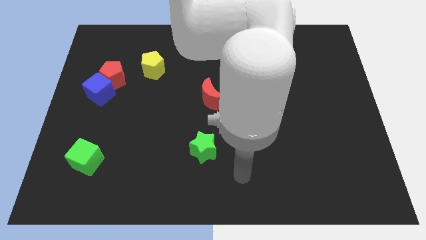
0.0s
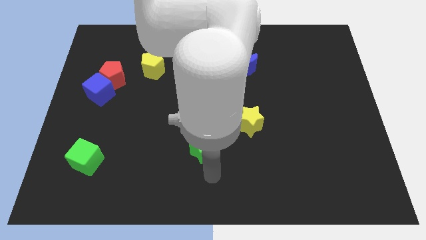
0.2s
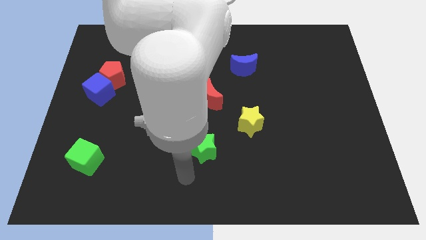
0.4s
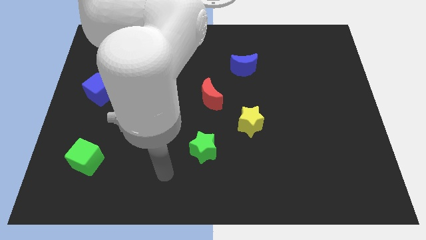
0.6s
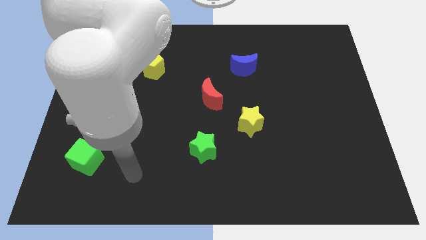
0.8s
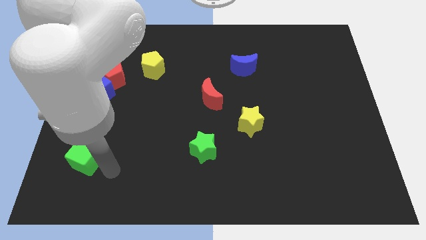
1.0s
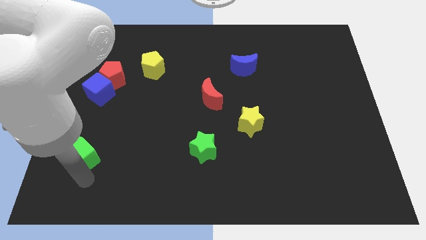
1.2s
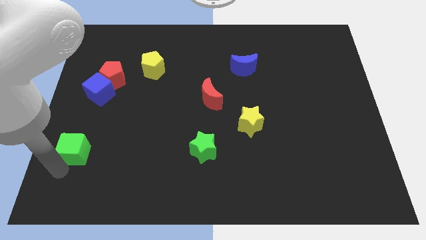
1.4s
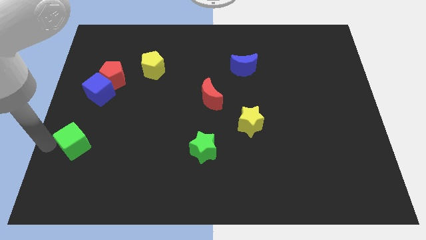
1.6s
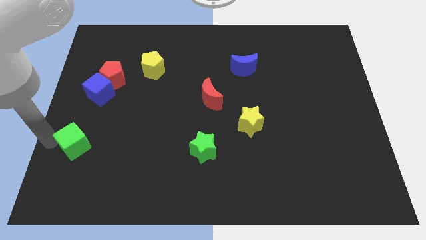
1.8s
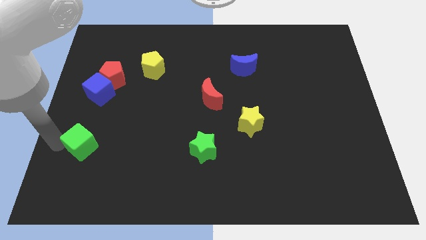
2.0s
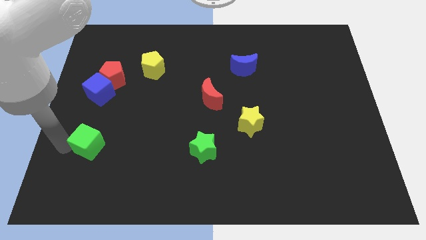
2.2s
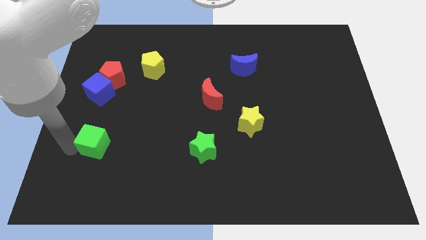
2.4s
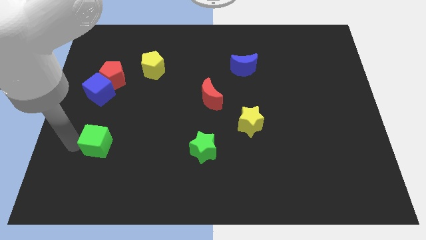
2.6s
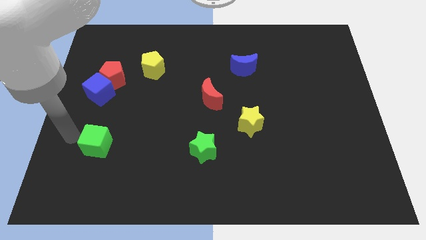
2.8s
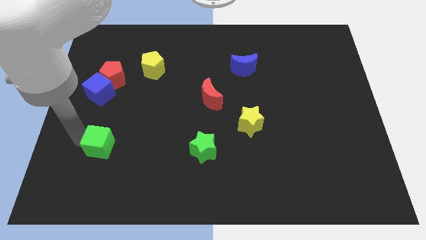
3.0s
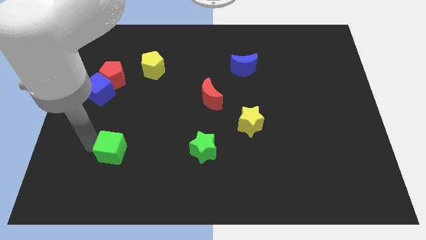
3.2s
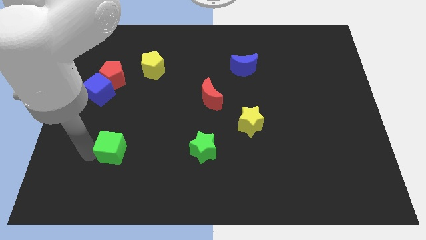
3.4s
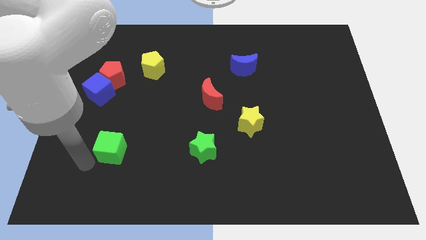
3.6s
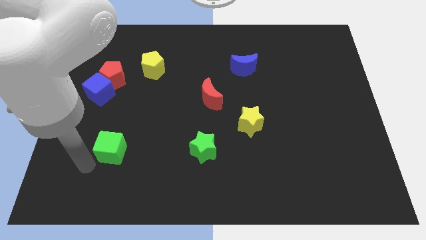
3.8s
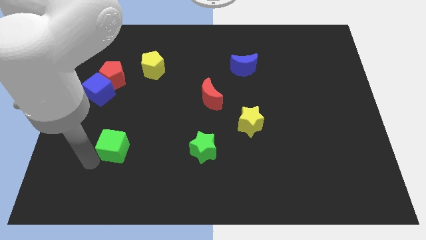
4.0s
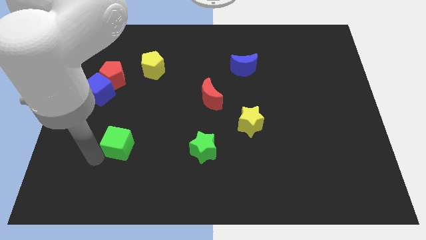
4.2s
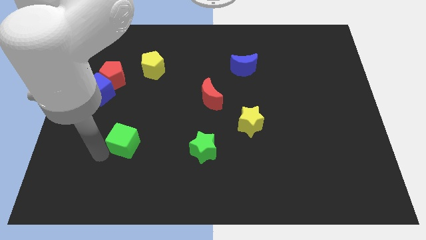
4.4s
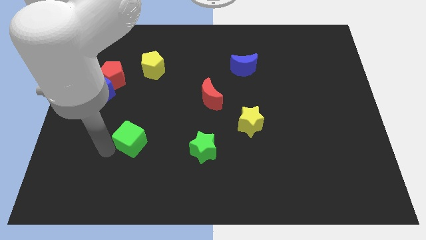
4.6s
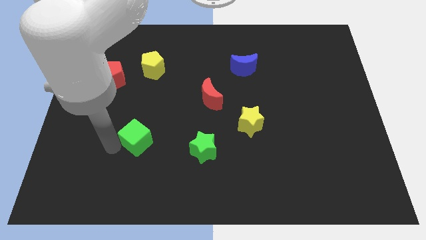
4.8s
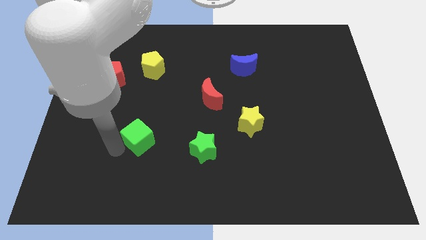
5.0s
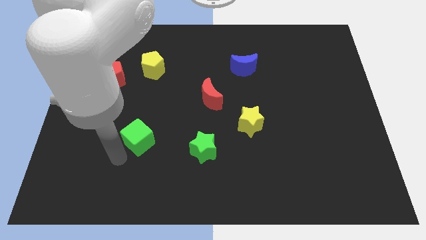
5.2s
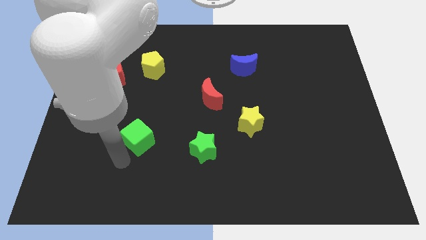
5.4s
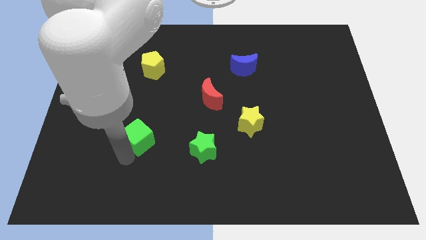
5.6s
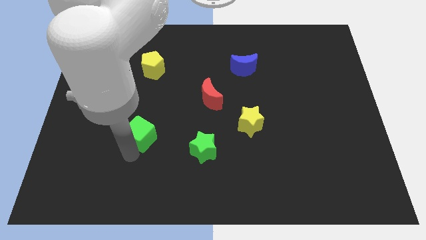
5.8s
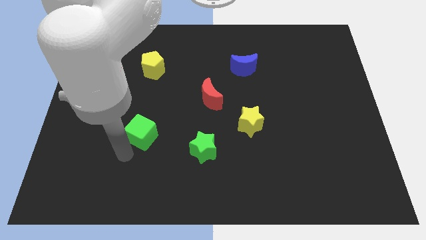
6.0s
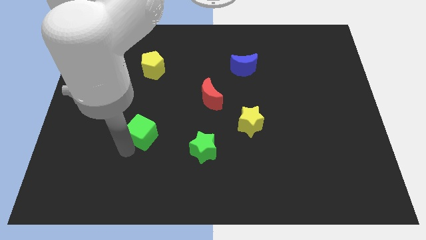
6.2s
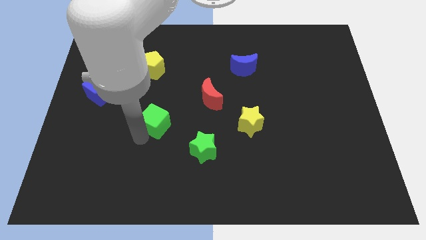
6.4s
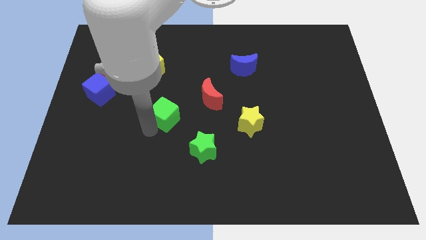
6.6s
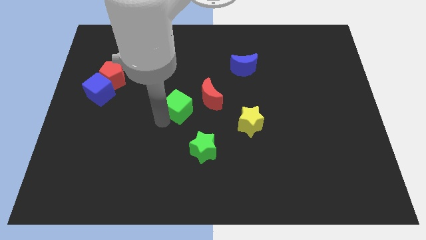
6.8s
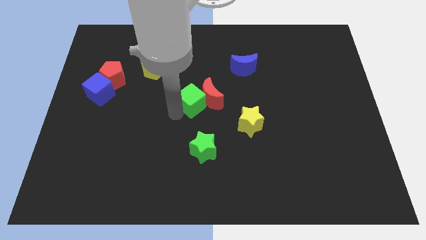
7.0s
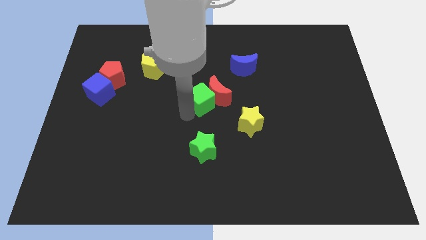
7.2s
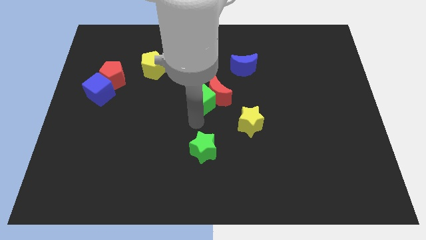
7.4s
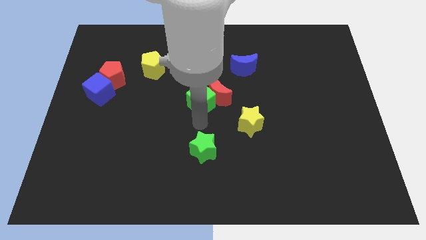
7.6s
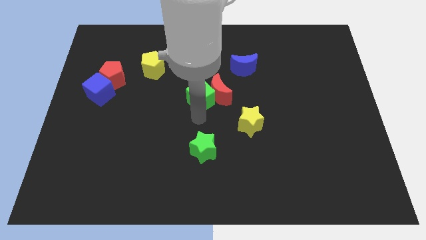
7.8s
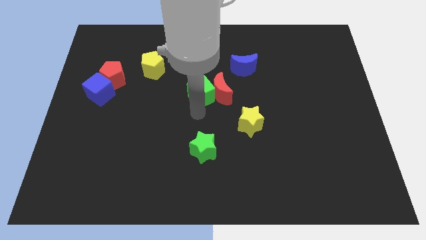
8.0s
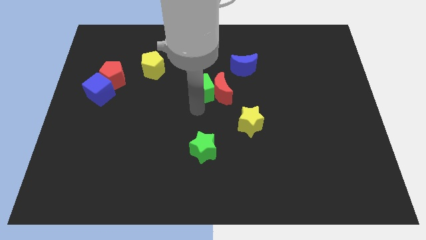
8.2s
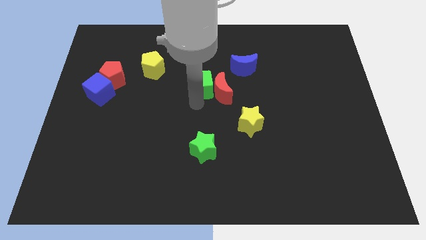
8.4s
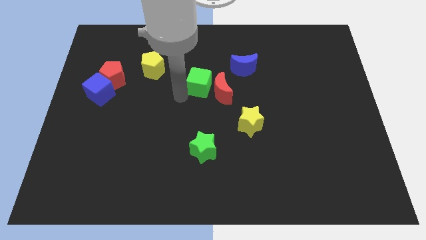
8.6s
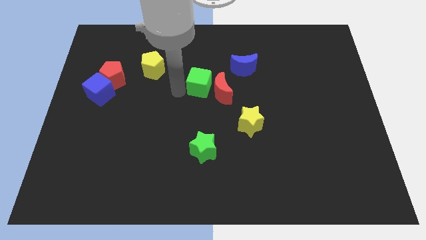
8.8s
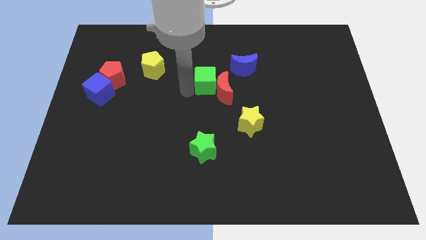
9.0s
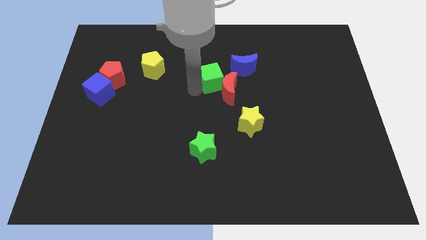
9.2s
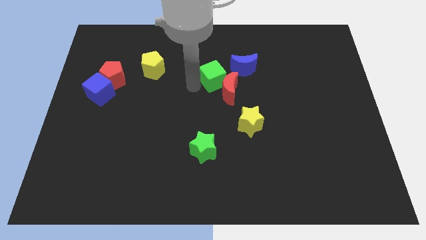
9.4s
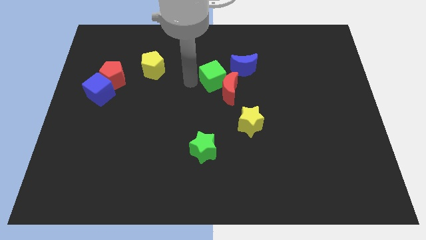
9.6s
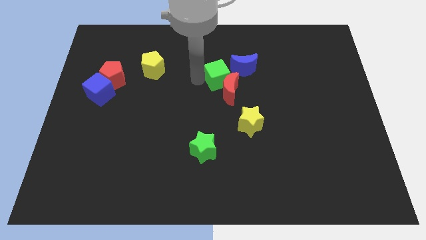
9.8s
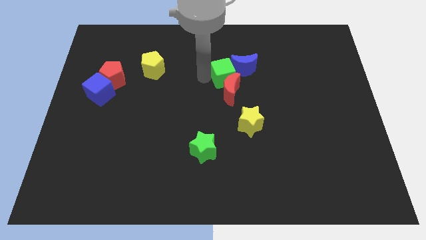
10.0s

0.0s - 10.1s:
slide the green cube to the top right of the red moon

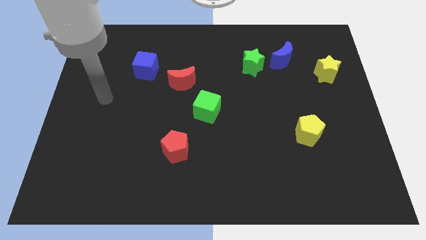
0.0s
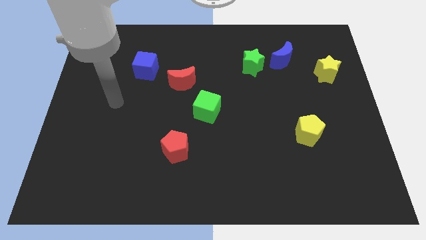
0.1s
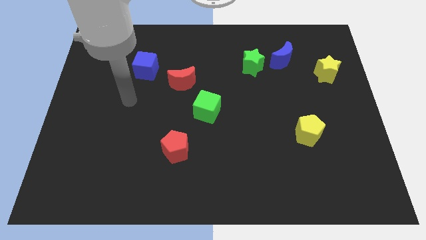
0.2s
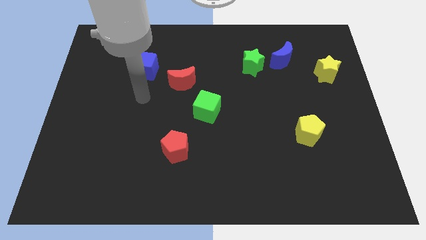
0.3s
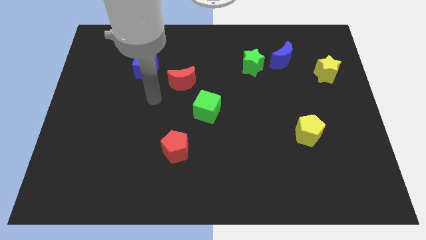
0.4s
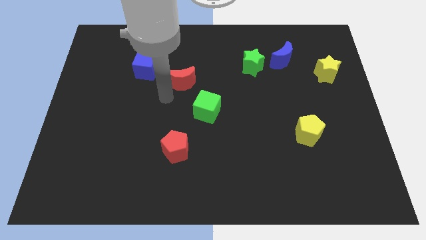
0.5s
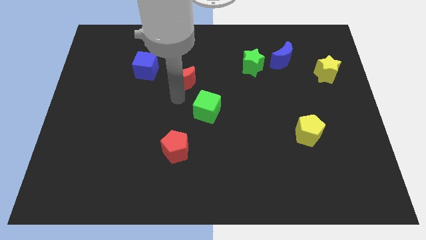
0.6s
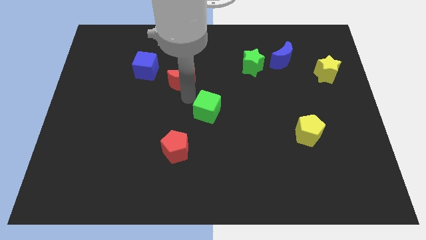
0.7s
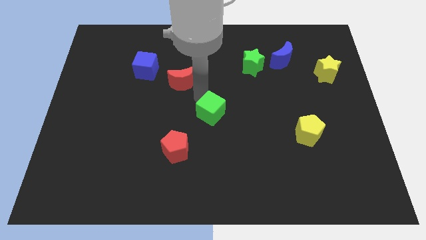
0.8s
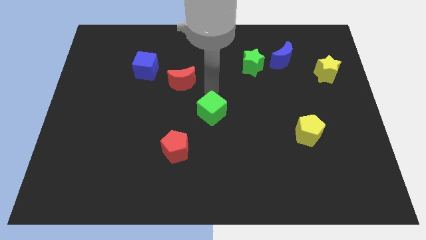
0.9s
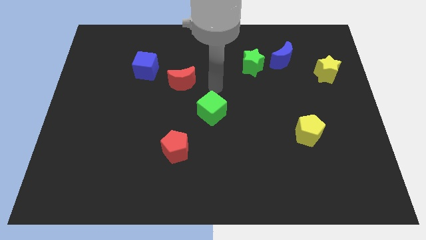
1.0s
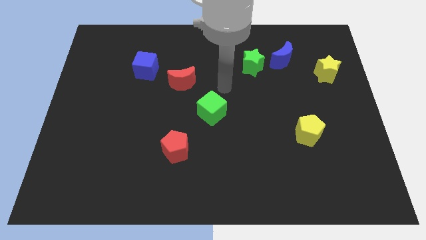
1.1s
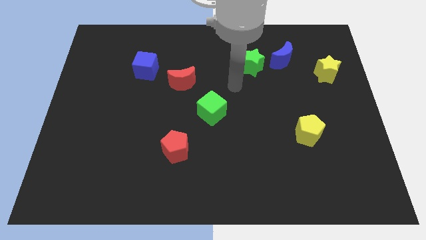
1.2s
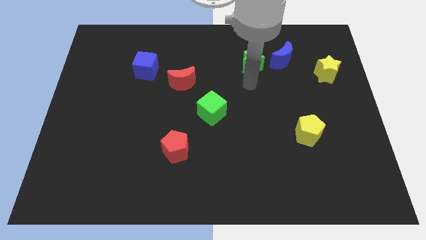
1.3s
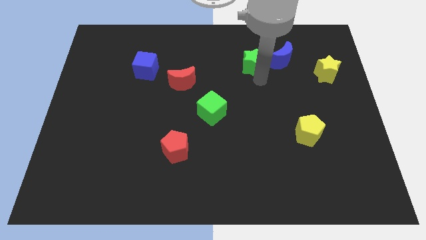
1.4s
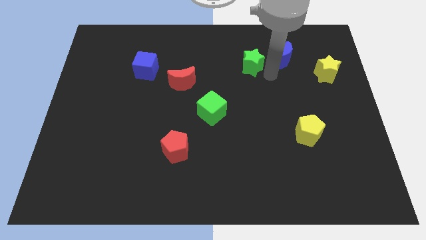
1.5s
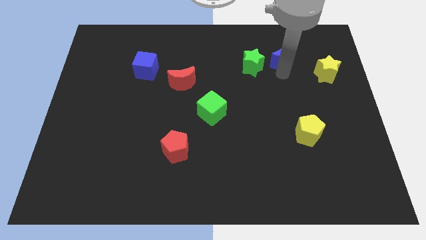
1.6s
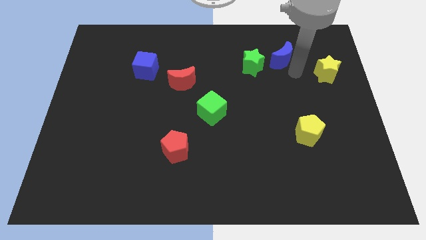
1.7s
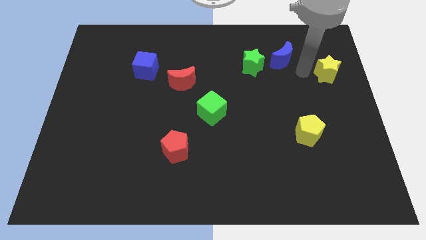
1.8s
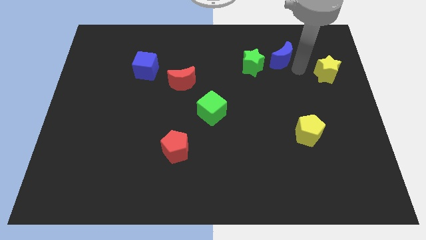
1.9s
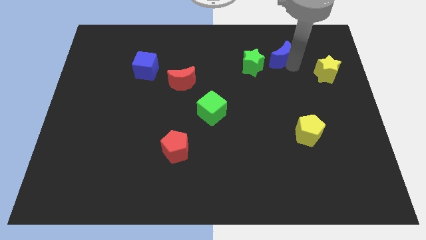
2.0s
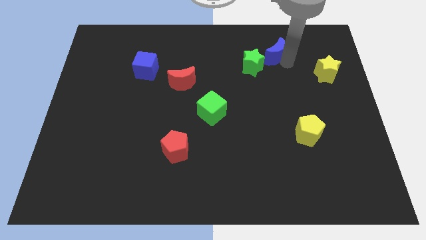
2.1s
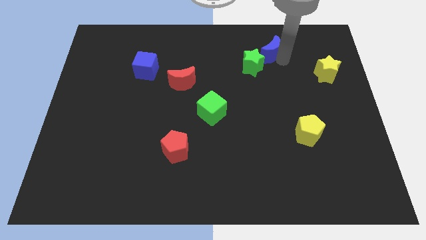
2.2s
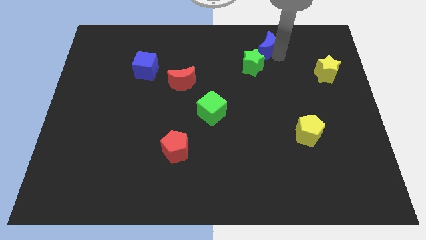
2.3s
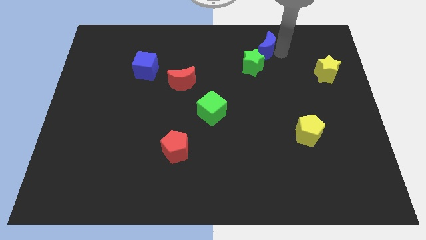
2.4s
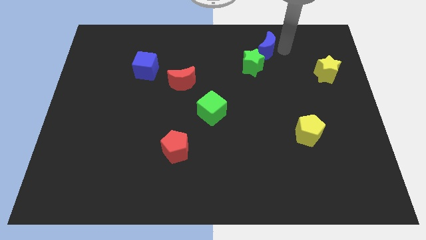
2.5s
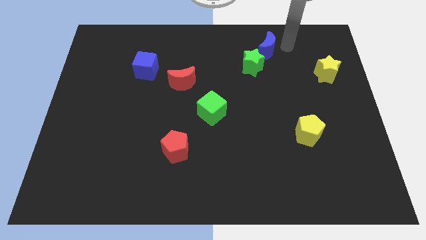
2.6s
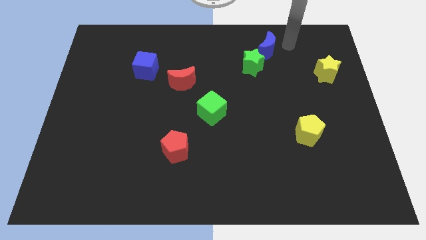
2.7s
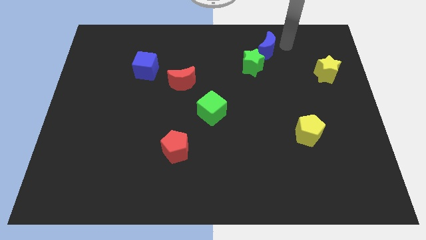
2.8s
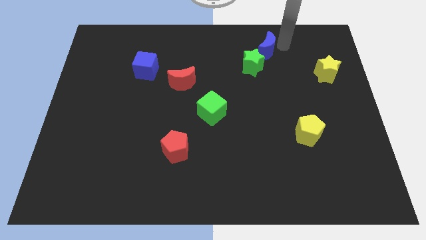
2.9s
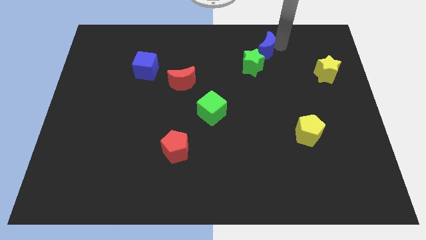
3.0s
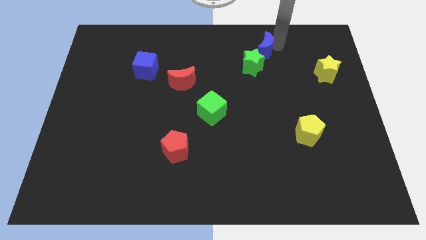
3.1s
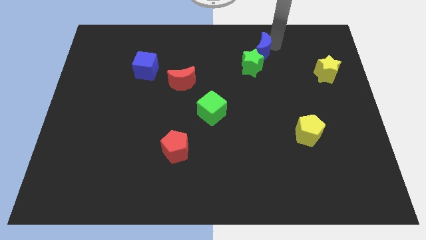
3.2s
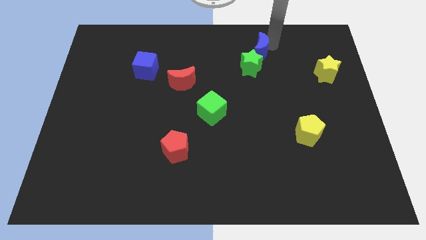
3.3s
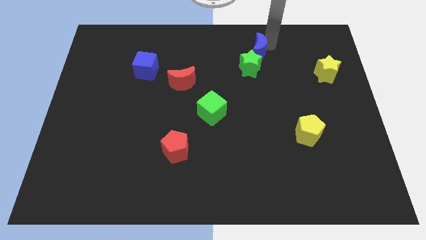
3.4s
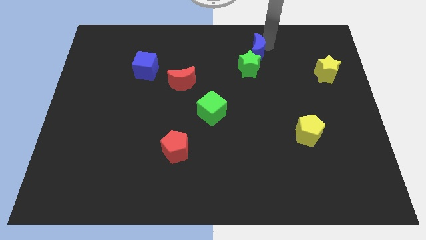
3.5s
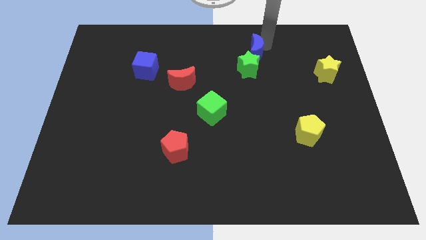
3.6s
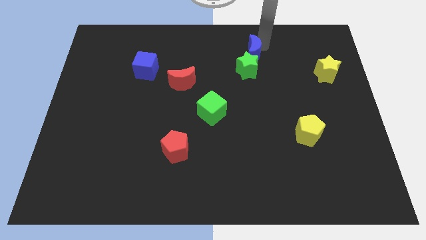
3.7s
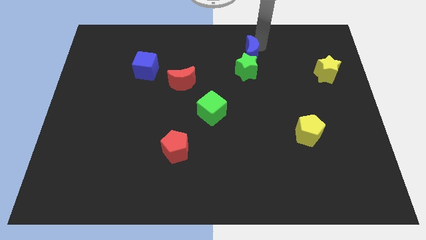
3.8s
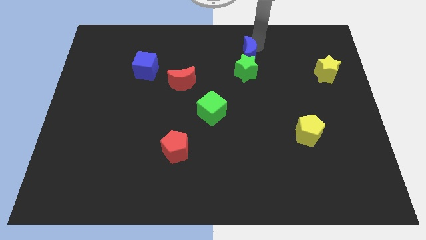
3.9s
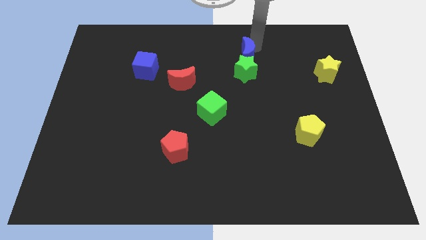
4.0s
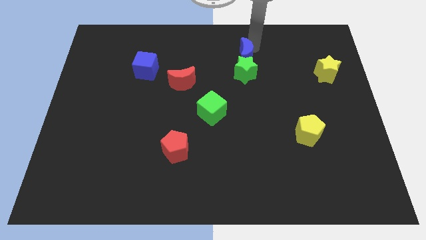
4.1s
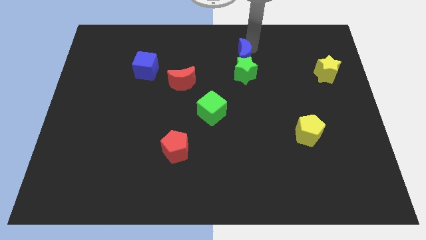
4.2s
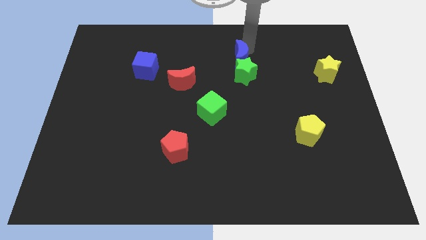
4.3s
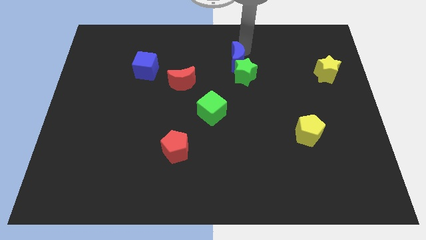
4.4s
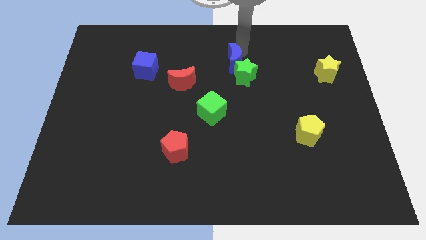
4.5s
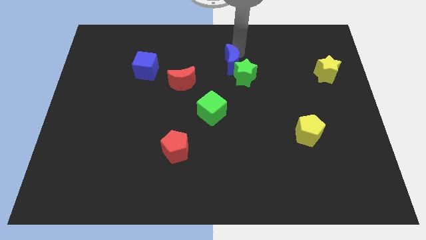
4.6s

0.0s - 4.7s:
move the blue moon to the left side of the green star
